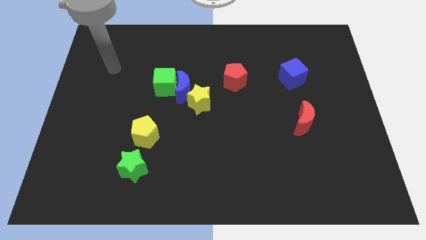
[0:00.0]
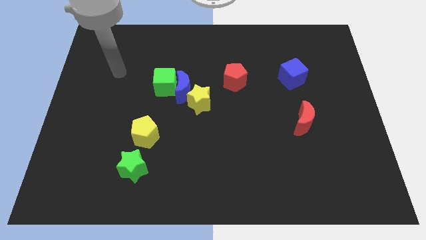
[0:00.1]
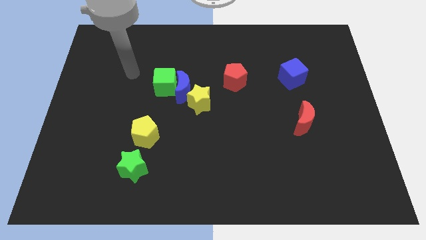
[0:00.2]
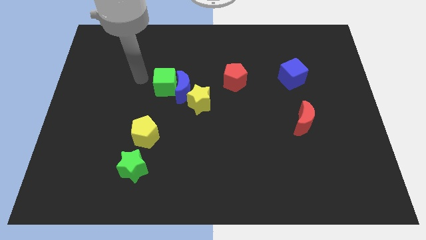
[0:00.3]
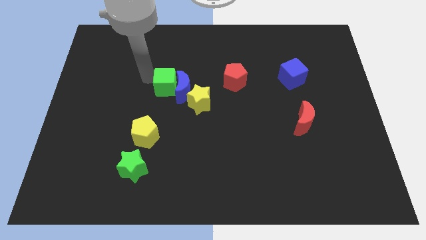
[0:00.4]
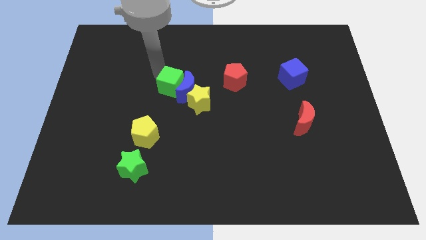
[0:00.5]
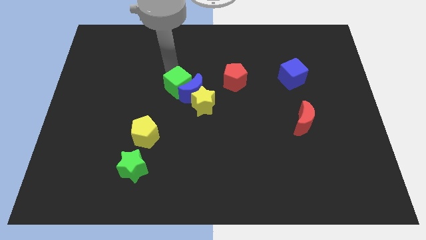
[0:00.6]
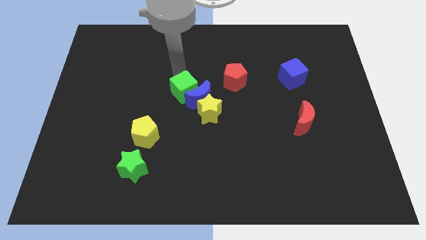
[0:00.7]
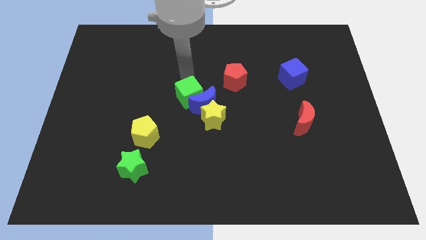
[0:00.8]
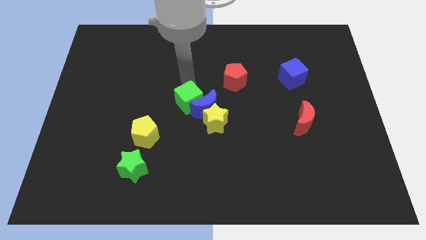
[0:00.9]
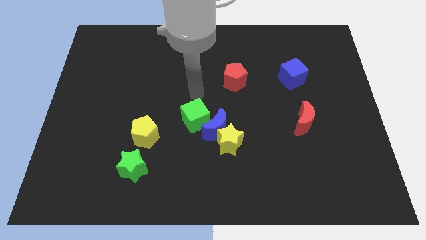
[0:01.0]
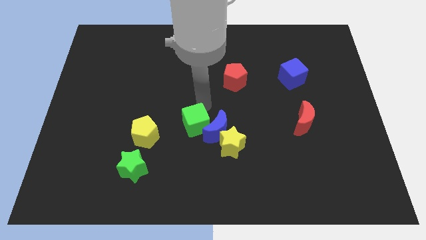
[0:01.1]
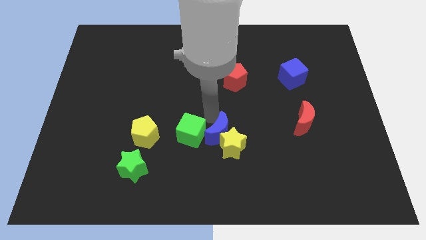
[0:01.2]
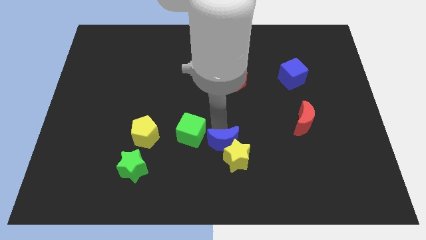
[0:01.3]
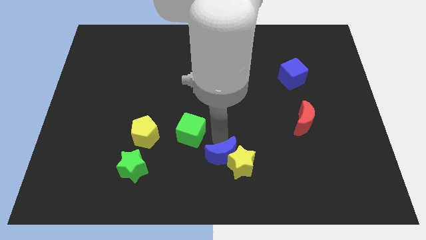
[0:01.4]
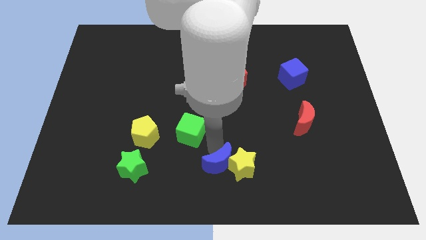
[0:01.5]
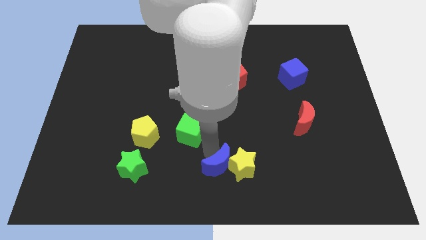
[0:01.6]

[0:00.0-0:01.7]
move the green cube away from the blue moon

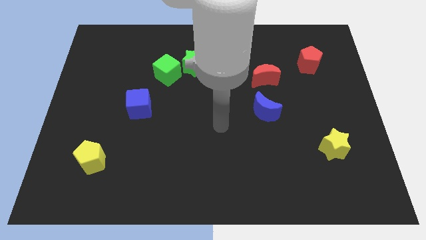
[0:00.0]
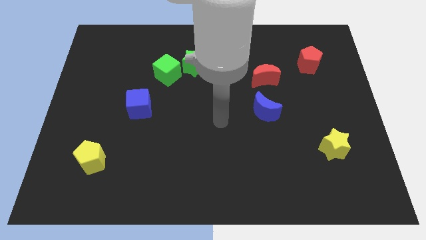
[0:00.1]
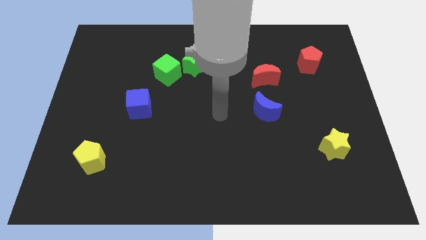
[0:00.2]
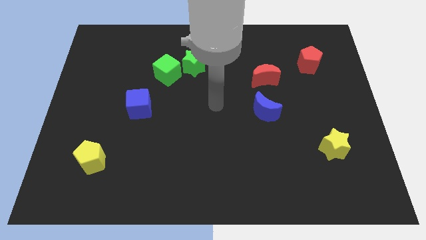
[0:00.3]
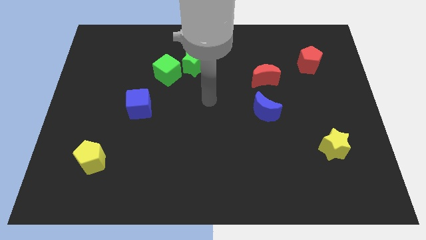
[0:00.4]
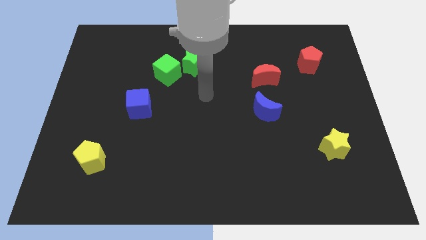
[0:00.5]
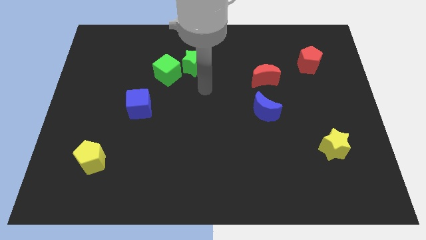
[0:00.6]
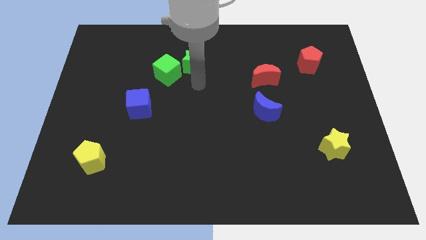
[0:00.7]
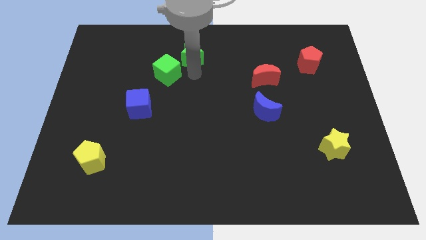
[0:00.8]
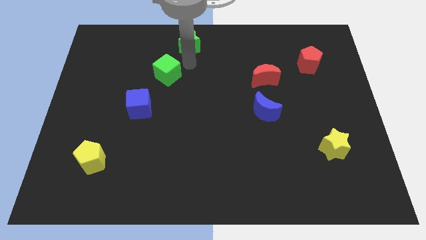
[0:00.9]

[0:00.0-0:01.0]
separate the green cube from the green star

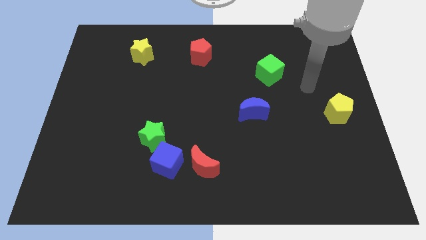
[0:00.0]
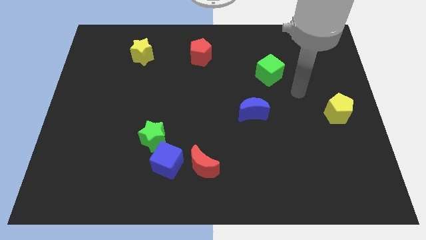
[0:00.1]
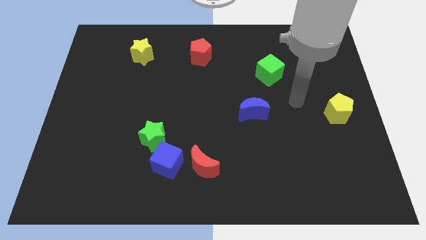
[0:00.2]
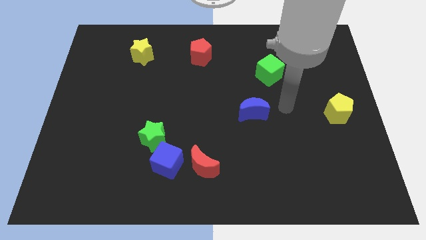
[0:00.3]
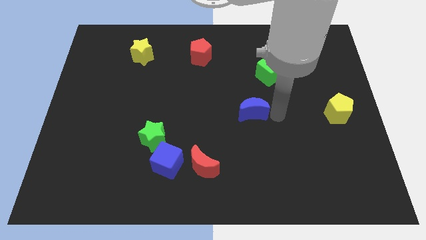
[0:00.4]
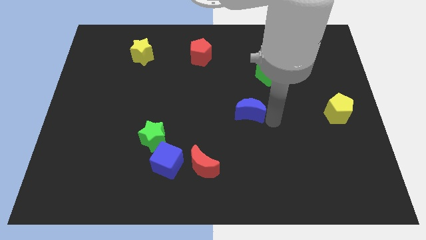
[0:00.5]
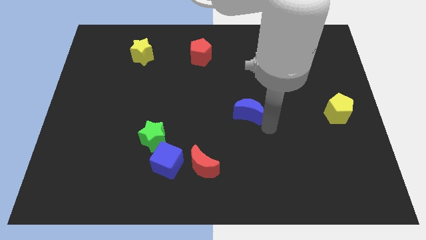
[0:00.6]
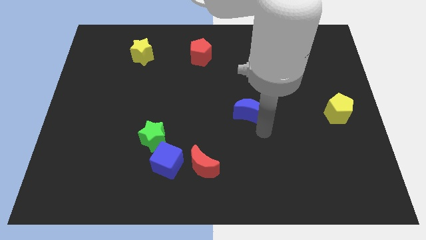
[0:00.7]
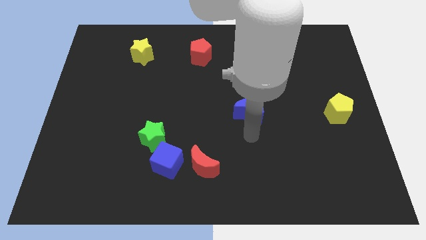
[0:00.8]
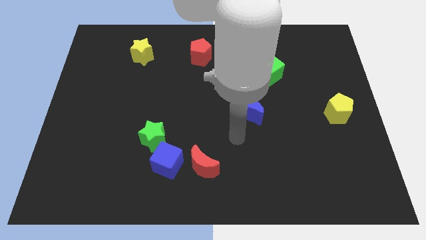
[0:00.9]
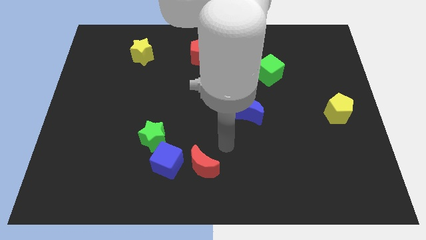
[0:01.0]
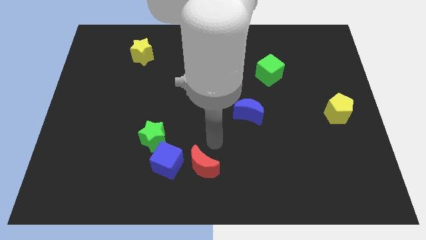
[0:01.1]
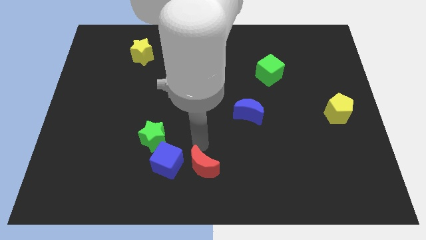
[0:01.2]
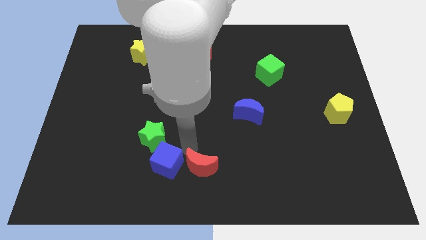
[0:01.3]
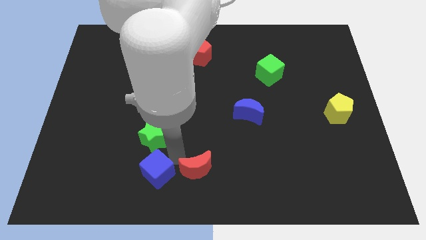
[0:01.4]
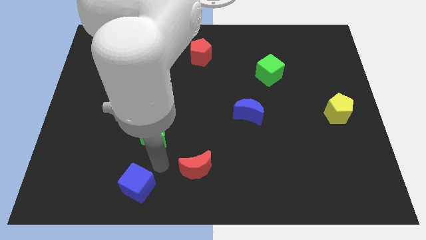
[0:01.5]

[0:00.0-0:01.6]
separate the green star from the blue cube

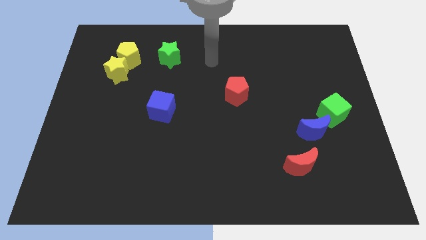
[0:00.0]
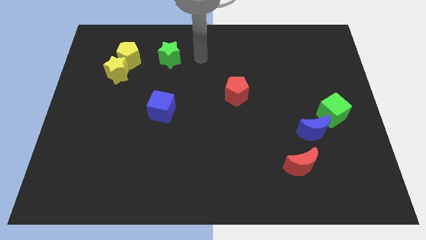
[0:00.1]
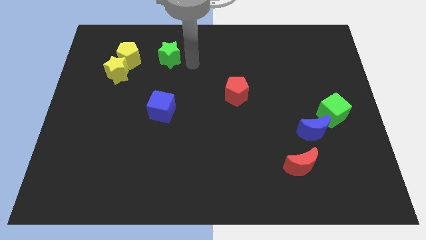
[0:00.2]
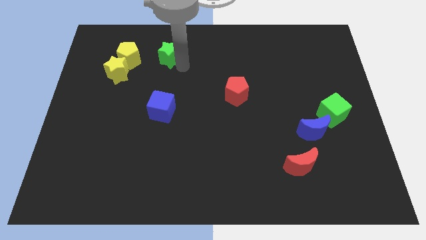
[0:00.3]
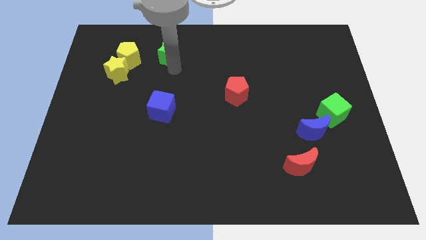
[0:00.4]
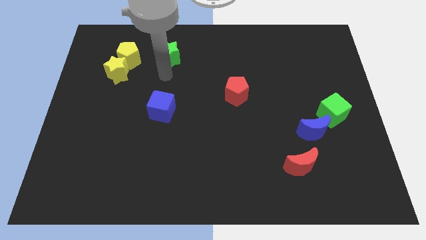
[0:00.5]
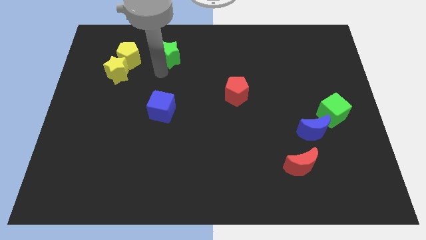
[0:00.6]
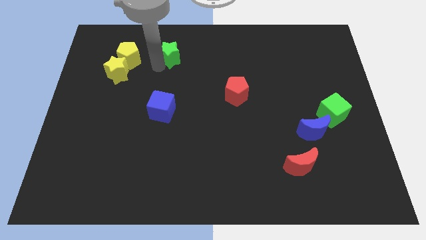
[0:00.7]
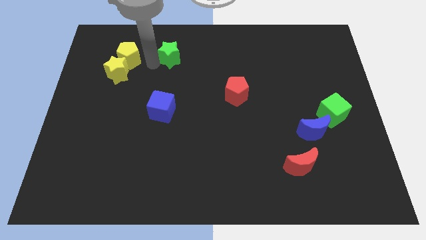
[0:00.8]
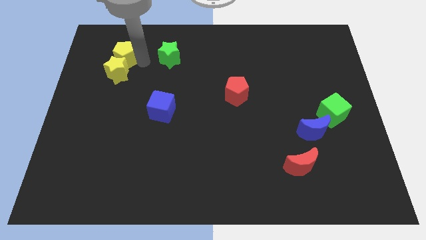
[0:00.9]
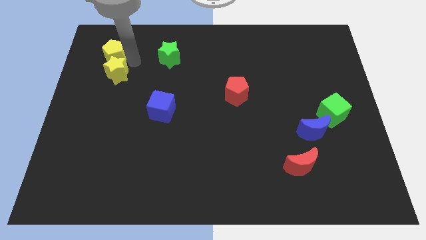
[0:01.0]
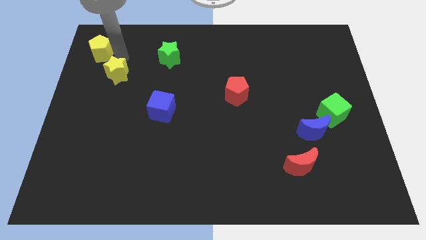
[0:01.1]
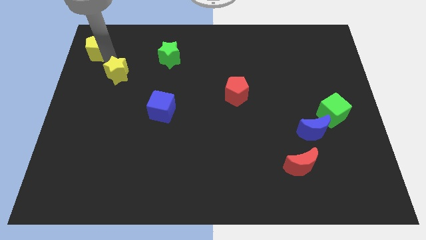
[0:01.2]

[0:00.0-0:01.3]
move the yellow star away from the yellow pentagon

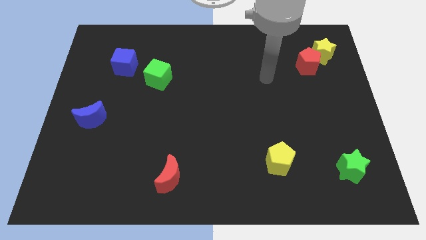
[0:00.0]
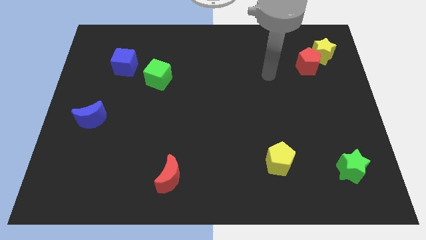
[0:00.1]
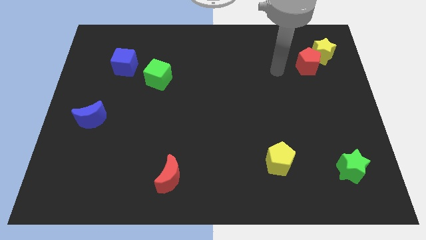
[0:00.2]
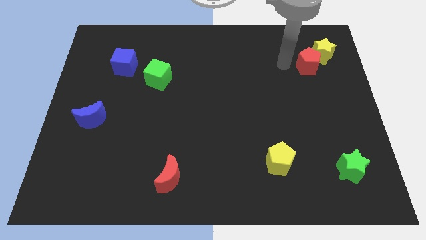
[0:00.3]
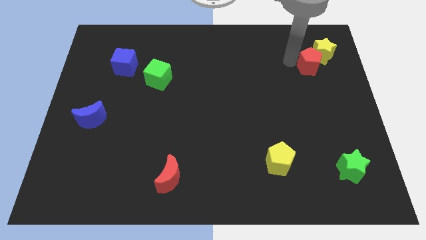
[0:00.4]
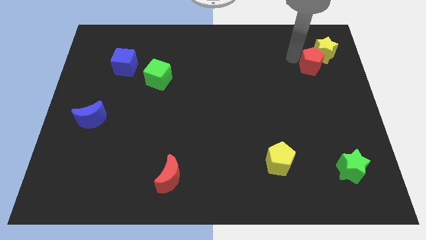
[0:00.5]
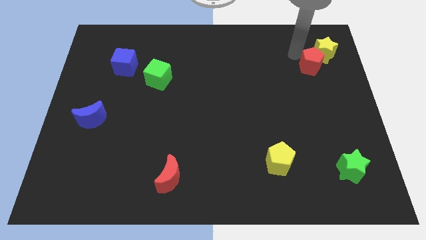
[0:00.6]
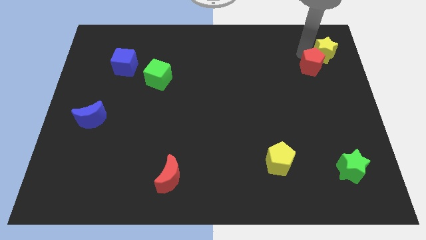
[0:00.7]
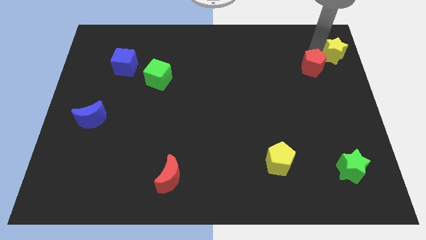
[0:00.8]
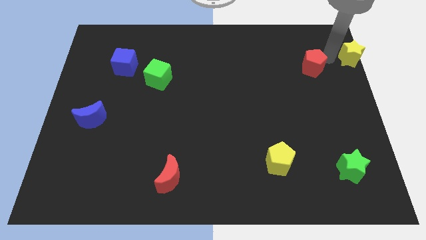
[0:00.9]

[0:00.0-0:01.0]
separate the red pentagon from the yellow star

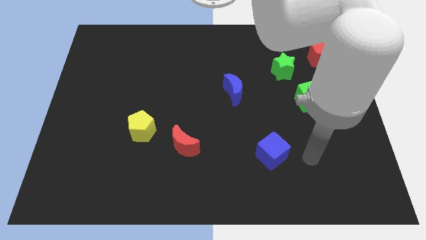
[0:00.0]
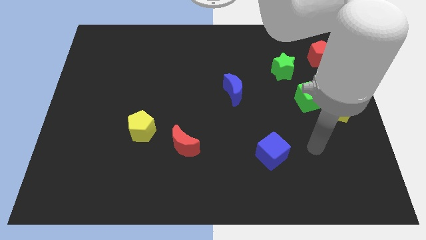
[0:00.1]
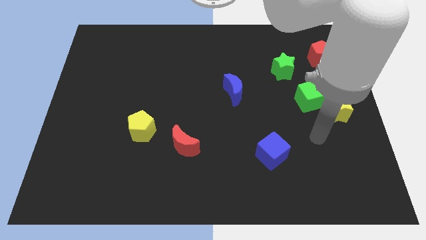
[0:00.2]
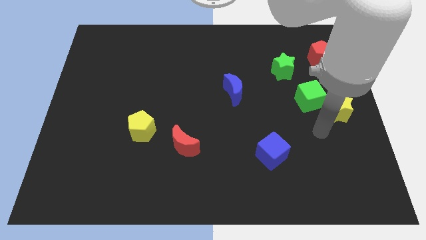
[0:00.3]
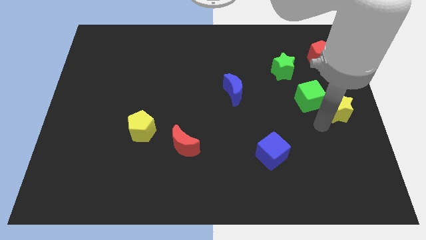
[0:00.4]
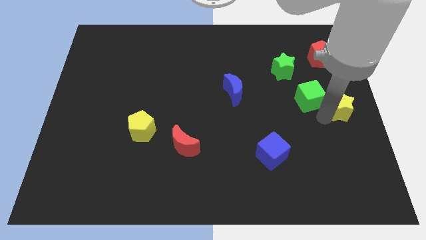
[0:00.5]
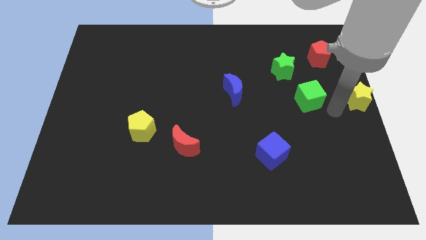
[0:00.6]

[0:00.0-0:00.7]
separate the green cube from the yellow star

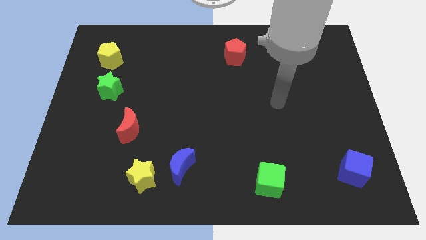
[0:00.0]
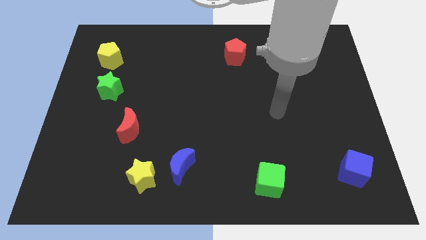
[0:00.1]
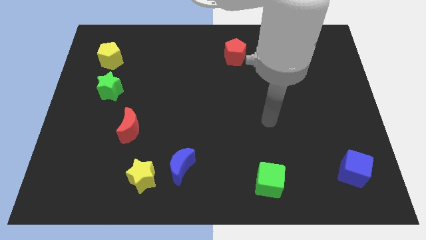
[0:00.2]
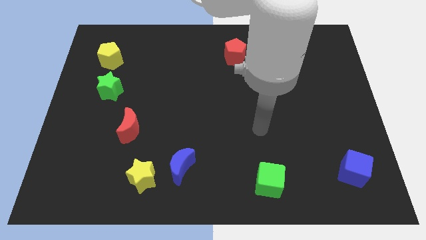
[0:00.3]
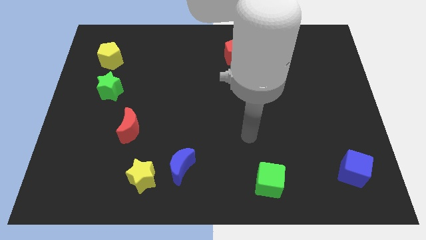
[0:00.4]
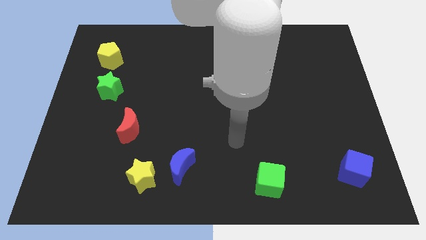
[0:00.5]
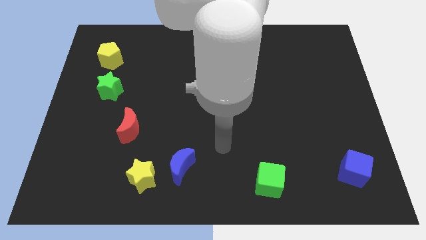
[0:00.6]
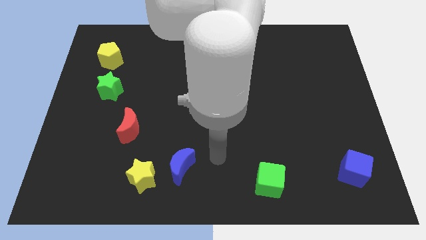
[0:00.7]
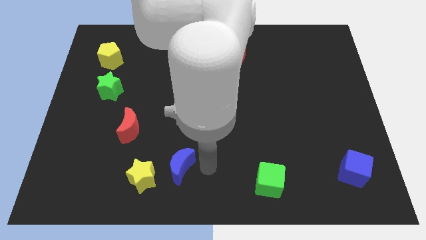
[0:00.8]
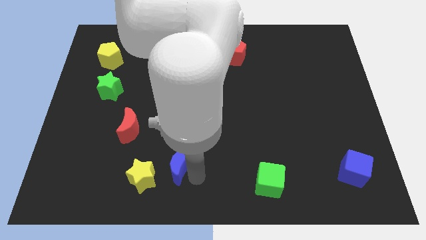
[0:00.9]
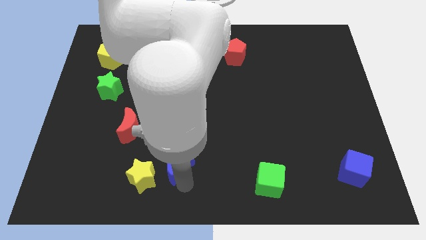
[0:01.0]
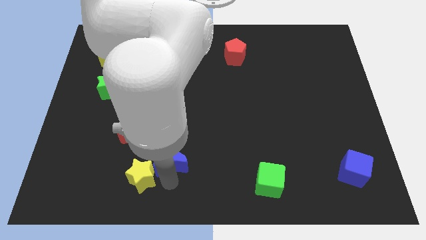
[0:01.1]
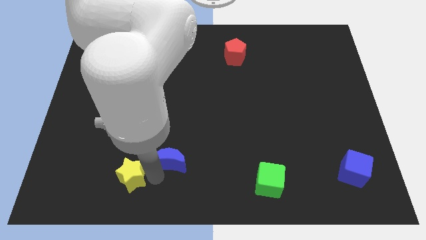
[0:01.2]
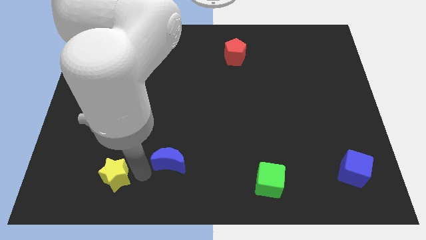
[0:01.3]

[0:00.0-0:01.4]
pull the blue moon apart from the yellow star

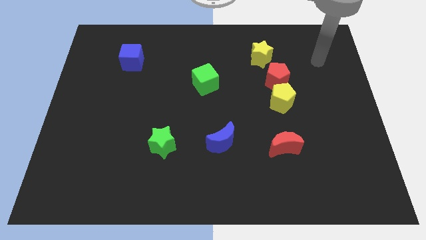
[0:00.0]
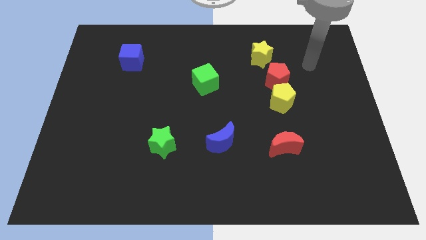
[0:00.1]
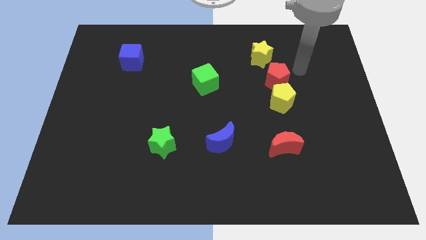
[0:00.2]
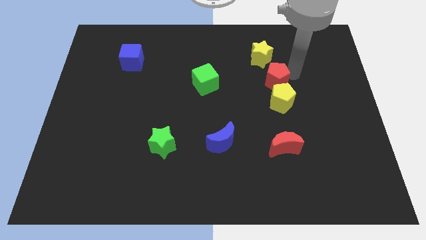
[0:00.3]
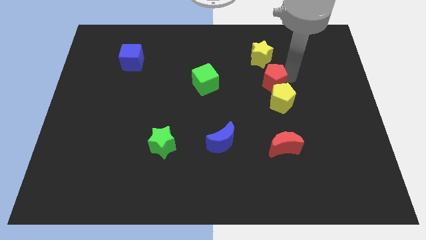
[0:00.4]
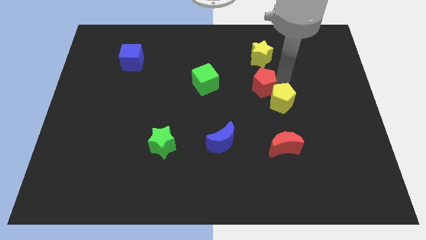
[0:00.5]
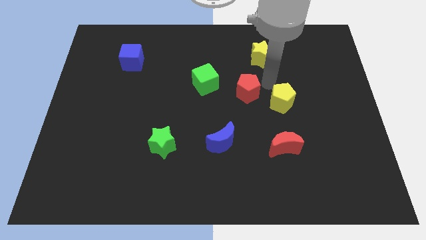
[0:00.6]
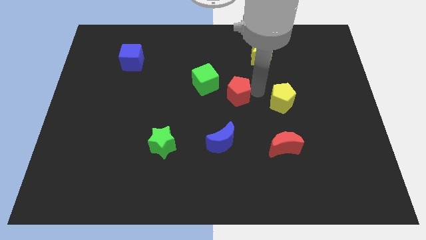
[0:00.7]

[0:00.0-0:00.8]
move the yellow pentagon away from the red pentagon
